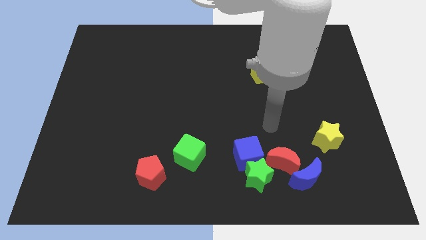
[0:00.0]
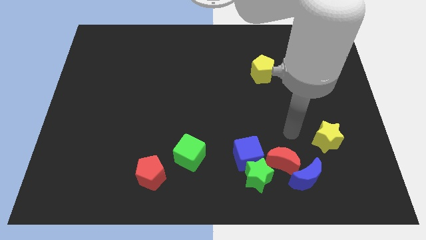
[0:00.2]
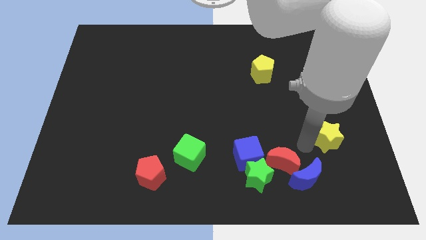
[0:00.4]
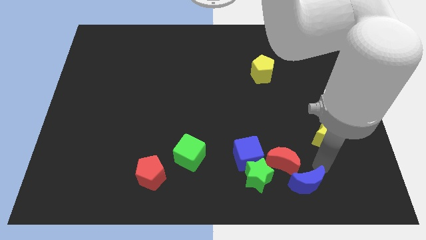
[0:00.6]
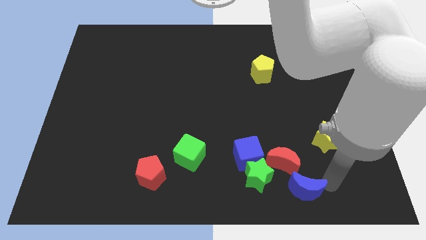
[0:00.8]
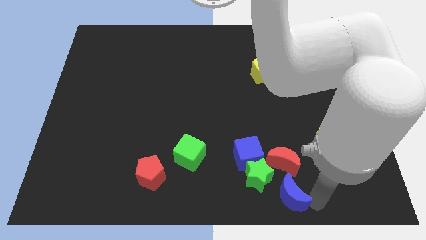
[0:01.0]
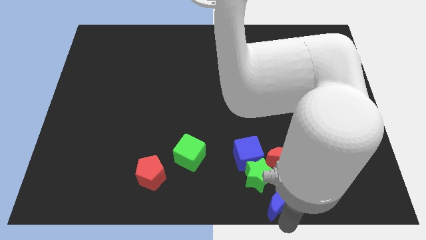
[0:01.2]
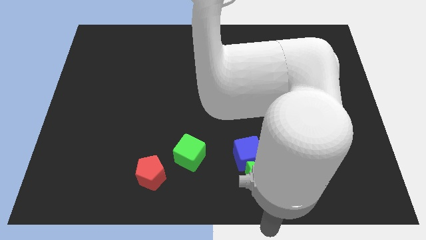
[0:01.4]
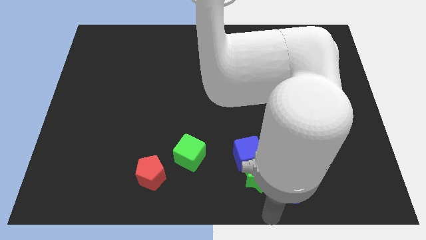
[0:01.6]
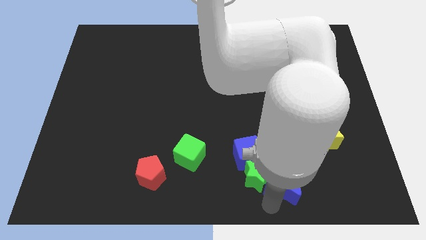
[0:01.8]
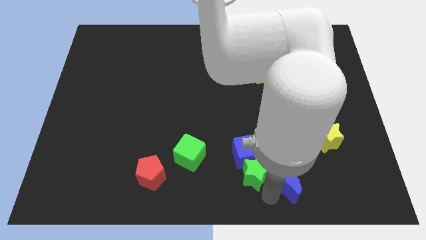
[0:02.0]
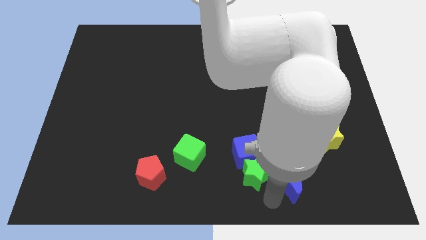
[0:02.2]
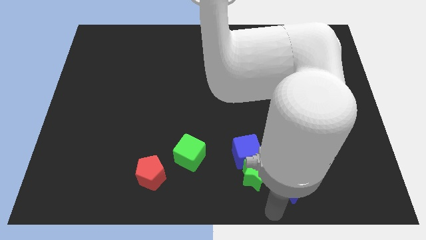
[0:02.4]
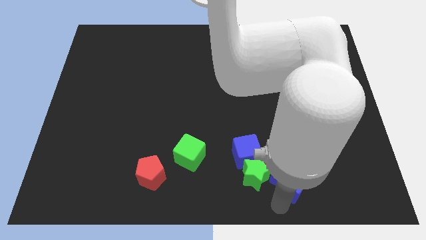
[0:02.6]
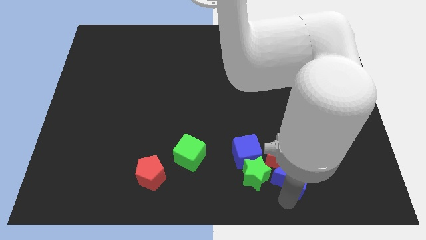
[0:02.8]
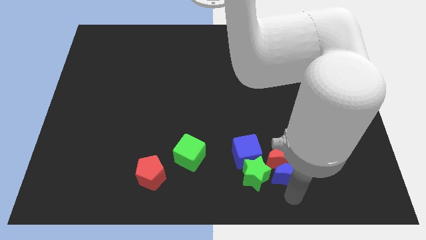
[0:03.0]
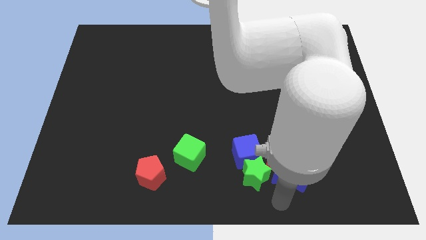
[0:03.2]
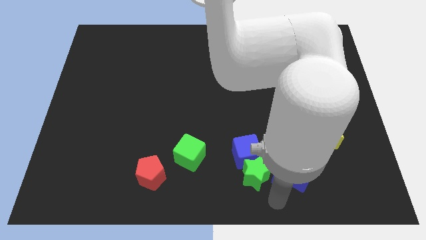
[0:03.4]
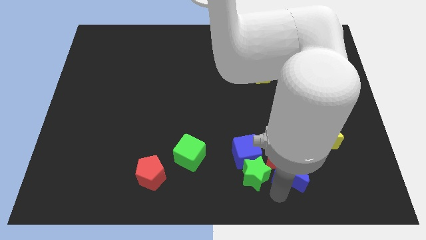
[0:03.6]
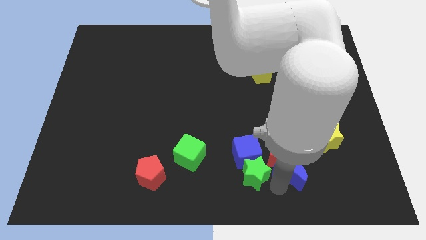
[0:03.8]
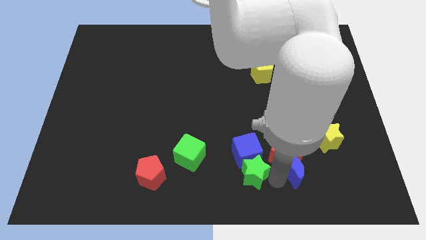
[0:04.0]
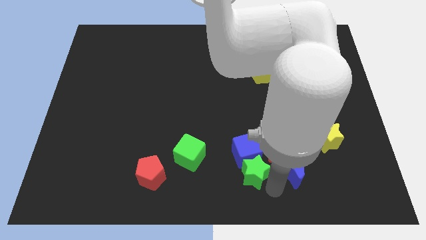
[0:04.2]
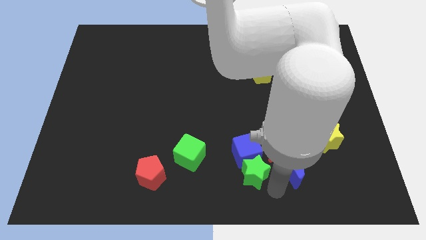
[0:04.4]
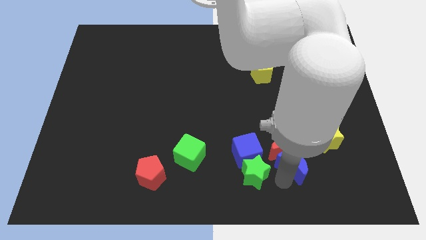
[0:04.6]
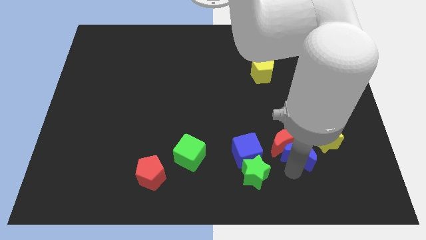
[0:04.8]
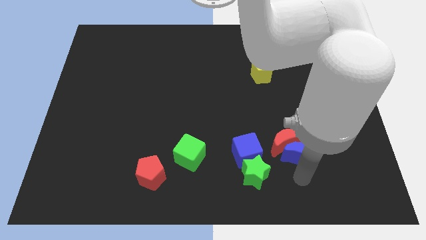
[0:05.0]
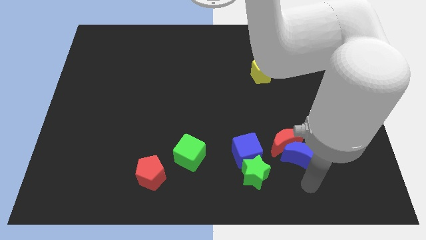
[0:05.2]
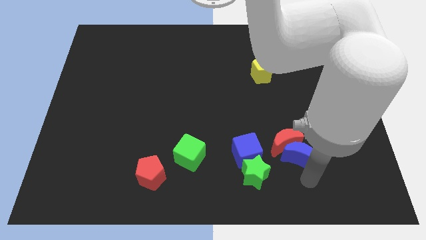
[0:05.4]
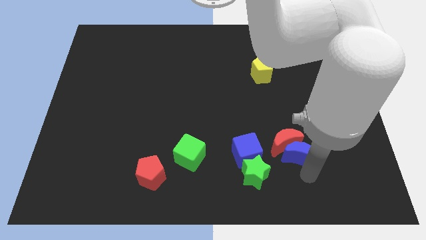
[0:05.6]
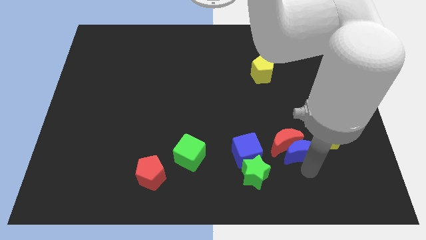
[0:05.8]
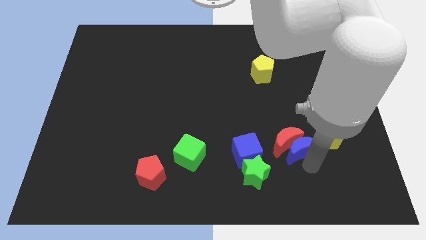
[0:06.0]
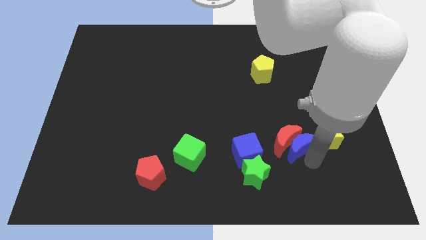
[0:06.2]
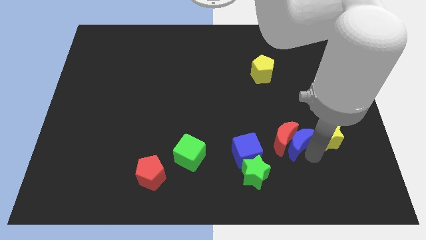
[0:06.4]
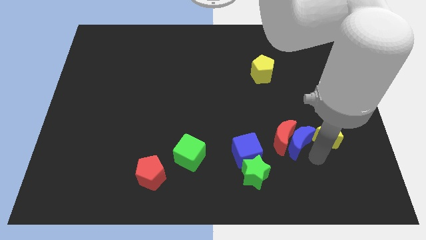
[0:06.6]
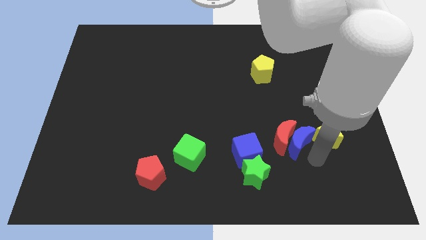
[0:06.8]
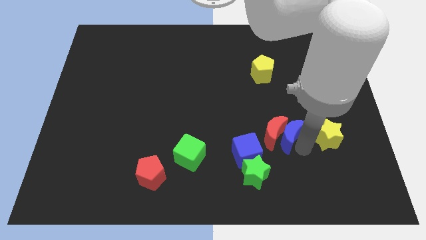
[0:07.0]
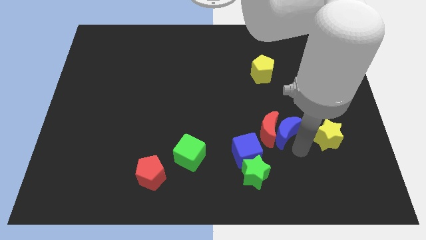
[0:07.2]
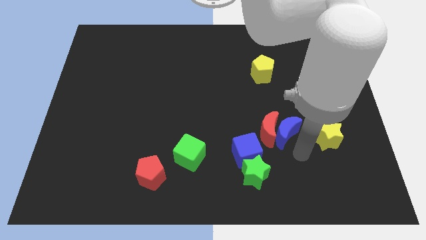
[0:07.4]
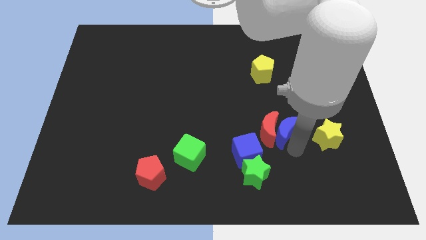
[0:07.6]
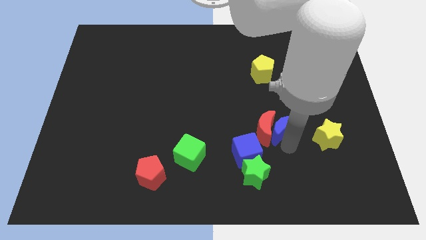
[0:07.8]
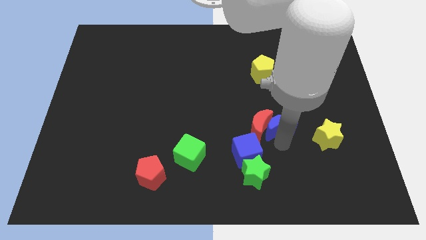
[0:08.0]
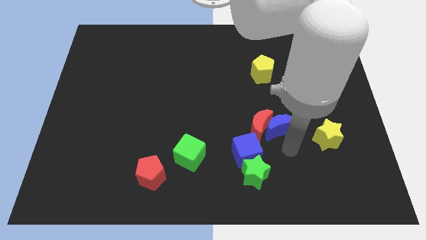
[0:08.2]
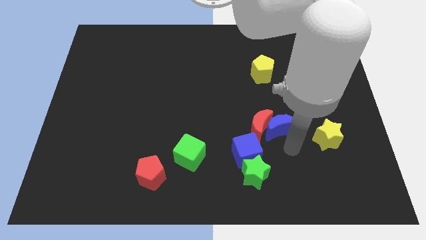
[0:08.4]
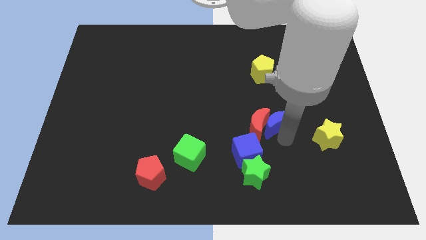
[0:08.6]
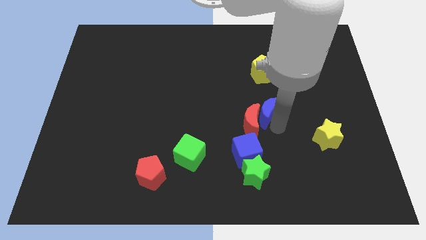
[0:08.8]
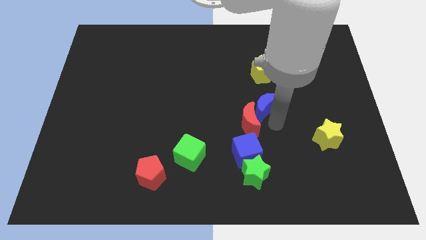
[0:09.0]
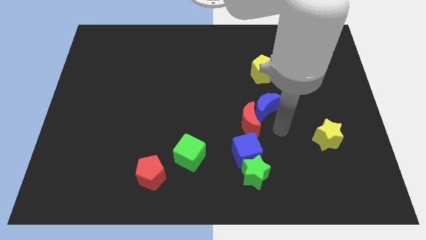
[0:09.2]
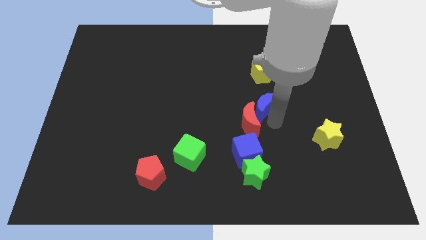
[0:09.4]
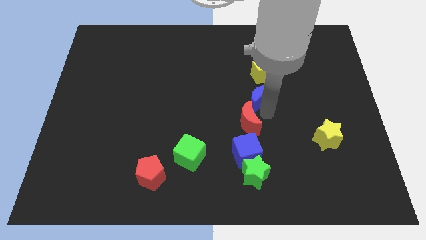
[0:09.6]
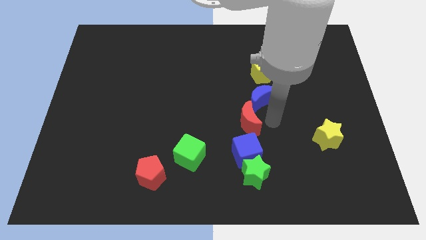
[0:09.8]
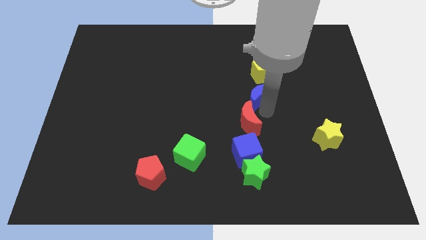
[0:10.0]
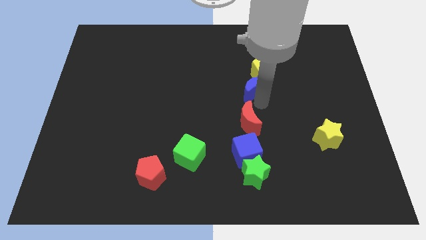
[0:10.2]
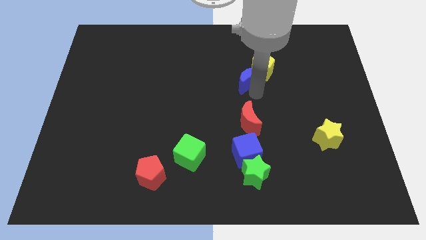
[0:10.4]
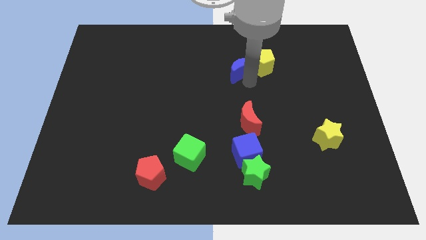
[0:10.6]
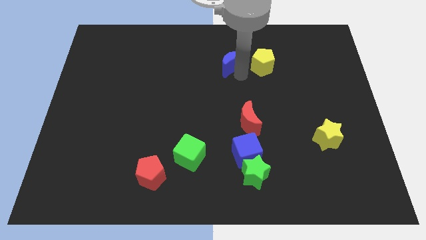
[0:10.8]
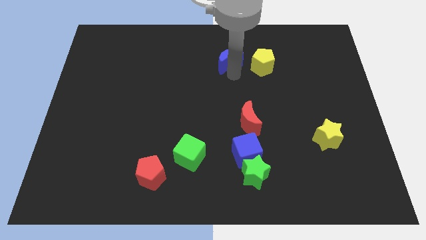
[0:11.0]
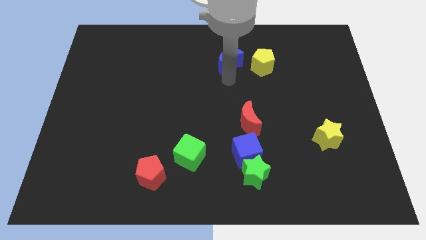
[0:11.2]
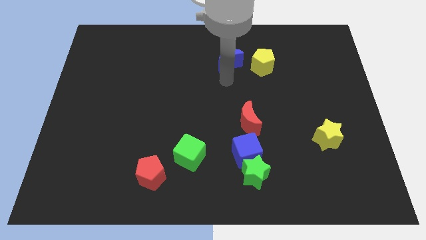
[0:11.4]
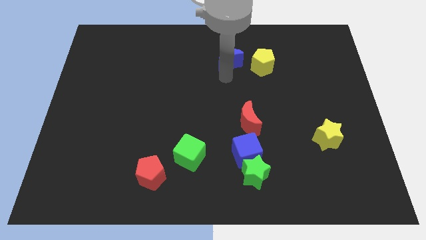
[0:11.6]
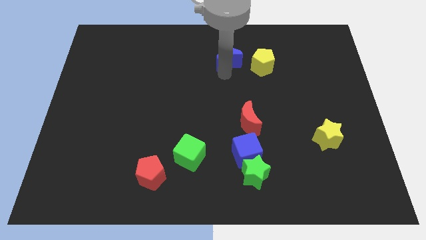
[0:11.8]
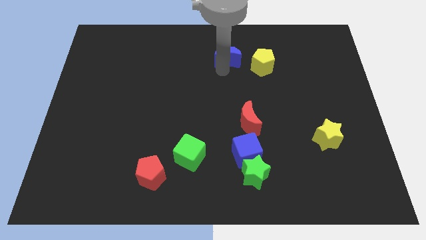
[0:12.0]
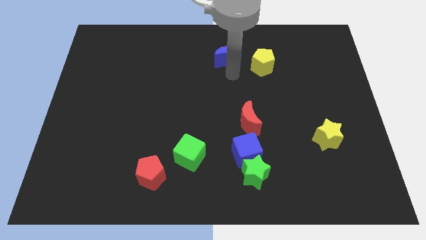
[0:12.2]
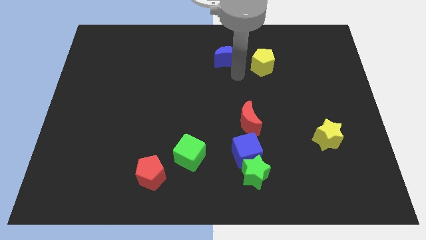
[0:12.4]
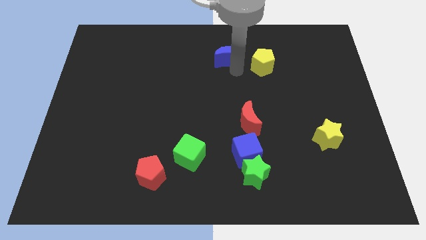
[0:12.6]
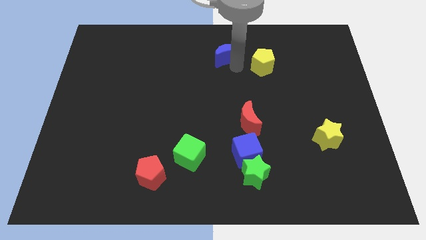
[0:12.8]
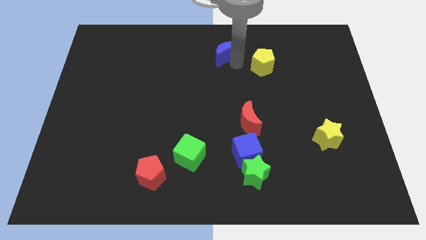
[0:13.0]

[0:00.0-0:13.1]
move the blue moon to the top
